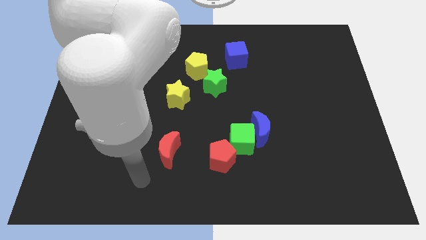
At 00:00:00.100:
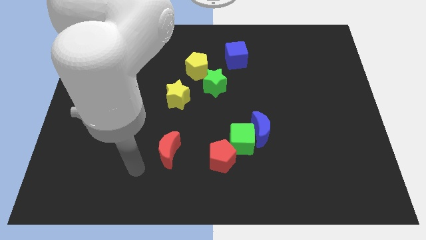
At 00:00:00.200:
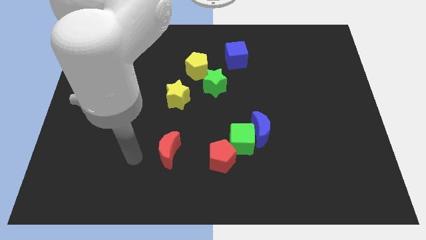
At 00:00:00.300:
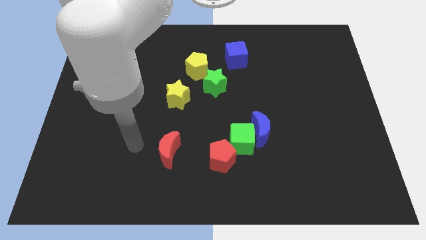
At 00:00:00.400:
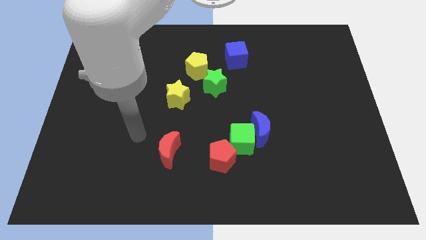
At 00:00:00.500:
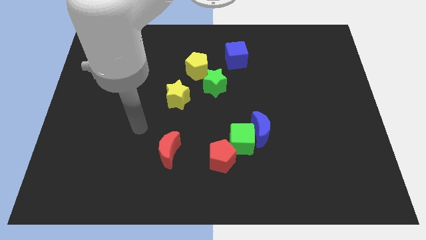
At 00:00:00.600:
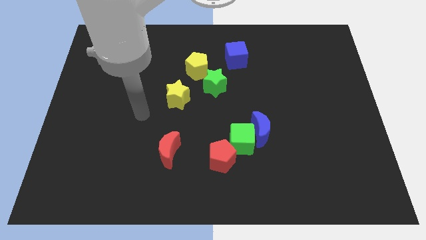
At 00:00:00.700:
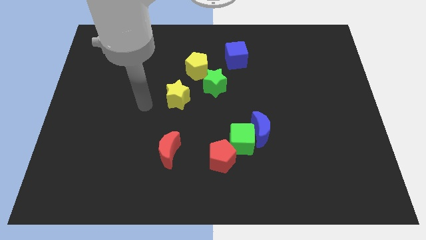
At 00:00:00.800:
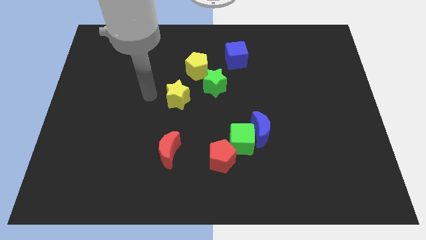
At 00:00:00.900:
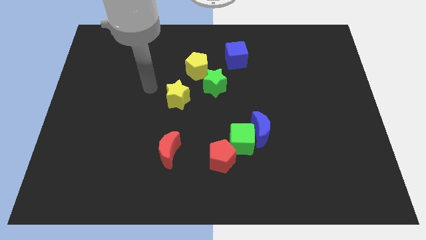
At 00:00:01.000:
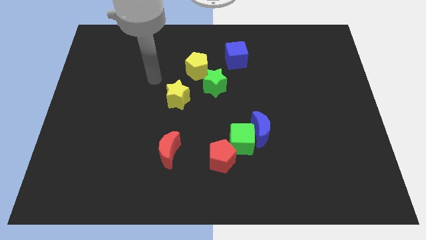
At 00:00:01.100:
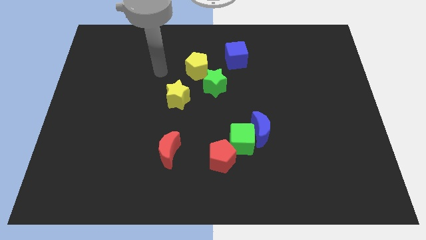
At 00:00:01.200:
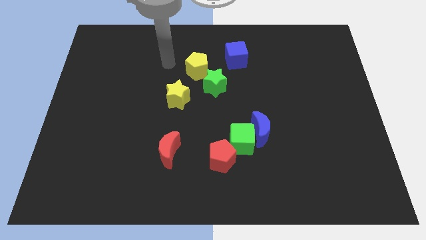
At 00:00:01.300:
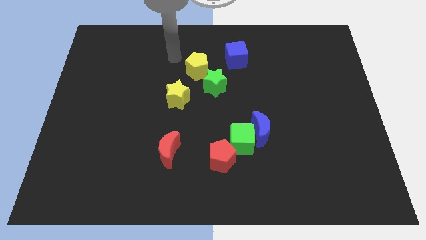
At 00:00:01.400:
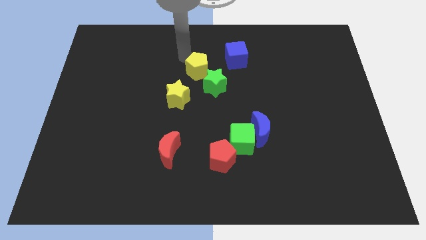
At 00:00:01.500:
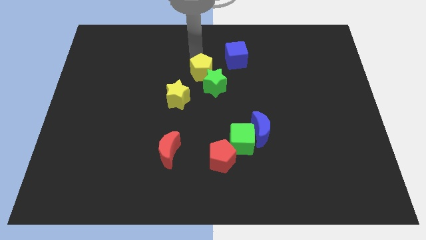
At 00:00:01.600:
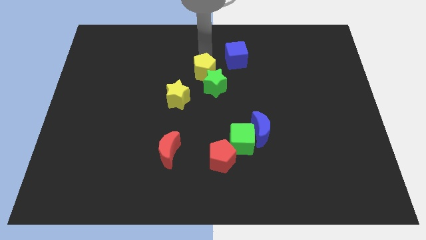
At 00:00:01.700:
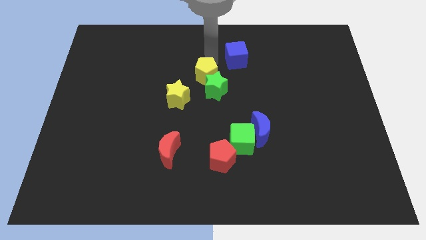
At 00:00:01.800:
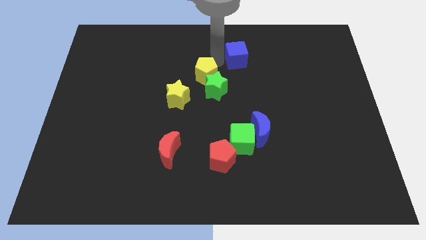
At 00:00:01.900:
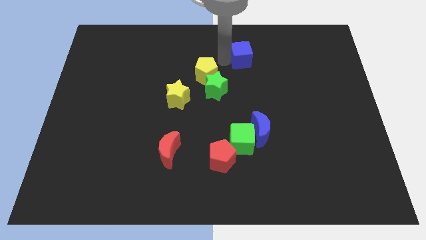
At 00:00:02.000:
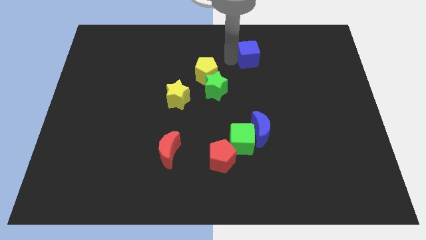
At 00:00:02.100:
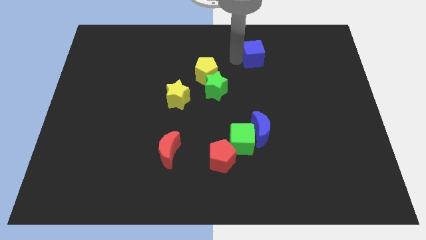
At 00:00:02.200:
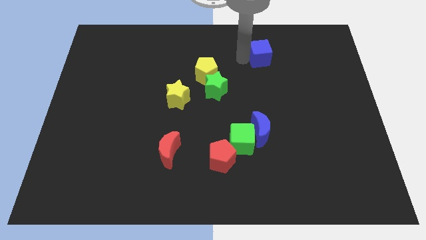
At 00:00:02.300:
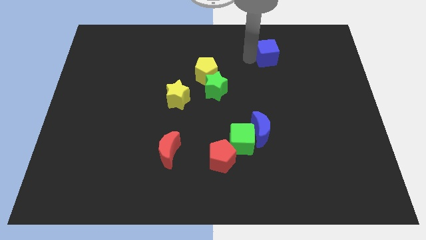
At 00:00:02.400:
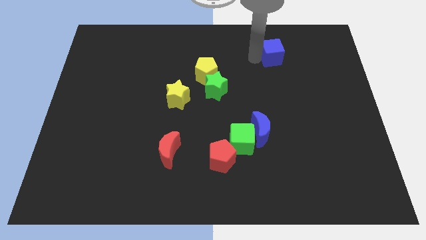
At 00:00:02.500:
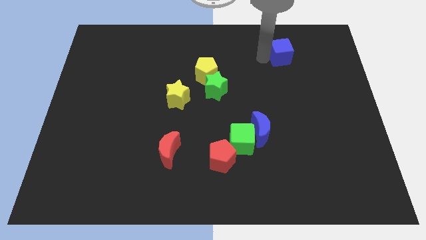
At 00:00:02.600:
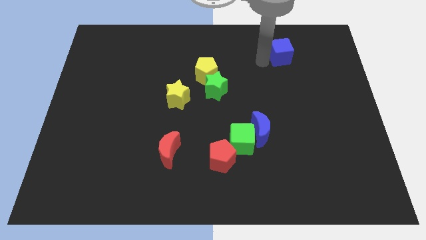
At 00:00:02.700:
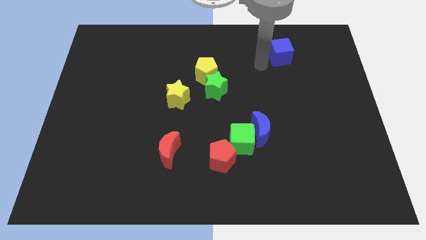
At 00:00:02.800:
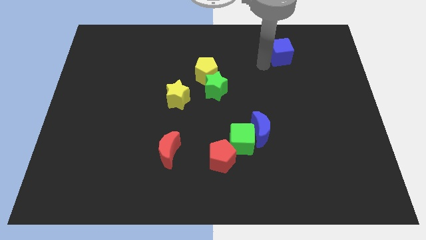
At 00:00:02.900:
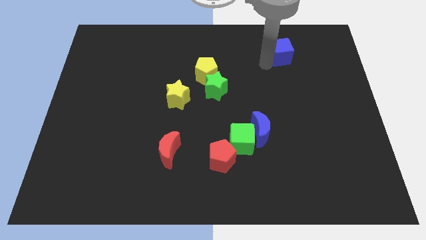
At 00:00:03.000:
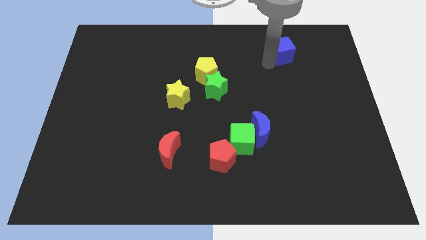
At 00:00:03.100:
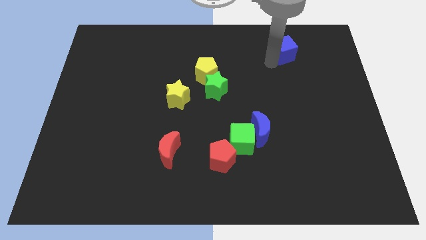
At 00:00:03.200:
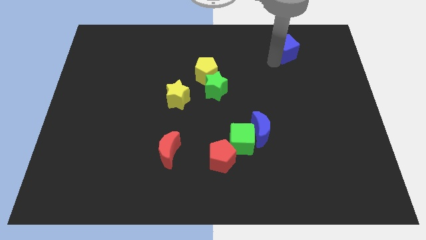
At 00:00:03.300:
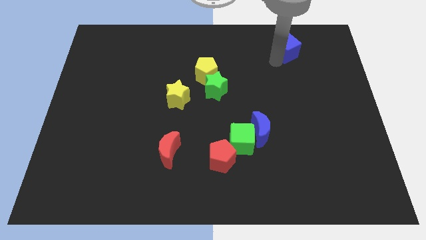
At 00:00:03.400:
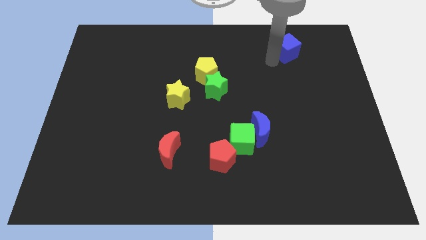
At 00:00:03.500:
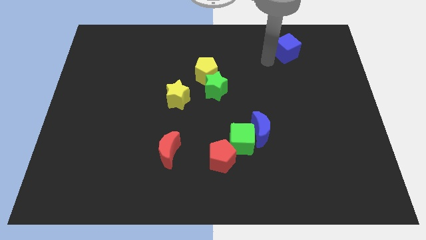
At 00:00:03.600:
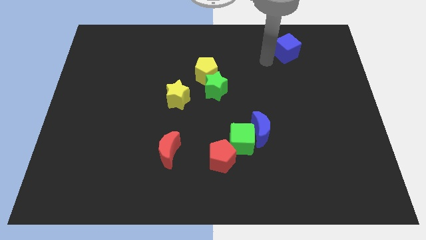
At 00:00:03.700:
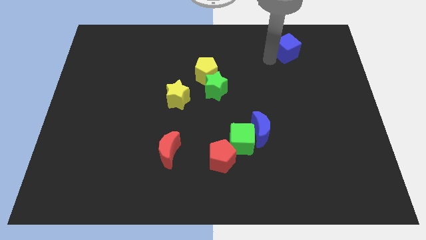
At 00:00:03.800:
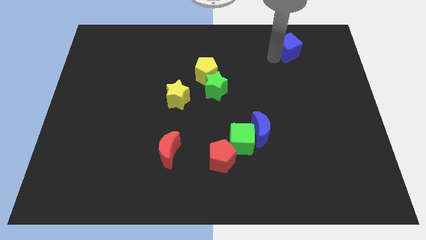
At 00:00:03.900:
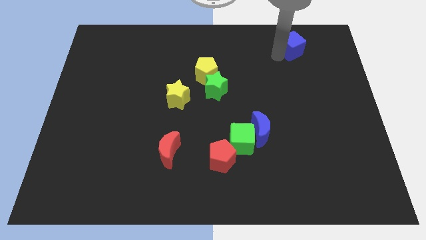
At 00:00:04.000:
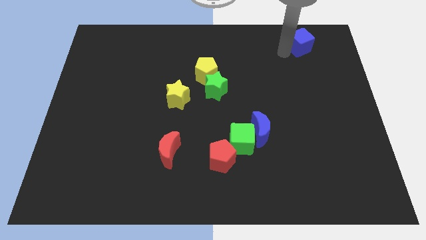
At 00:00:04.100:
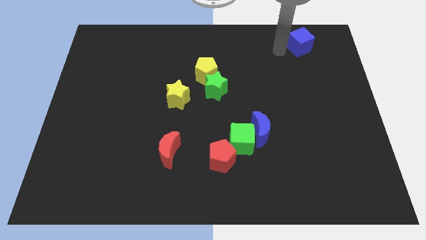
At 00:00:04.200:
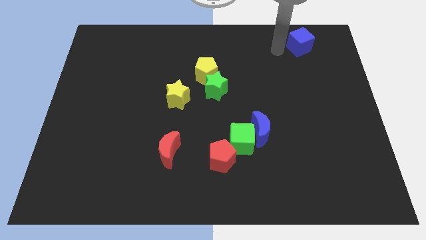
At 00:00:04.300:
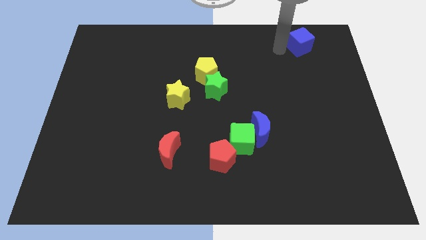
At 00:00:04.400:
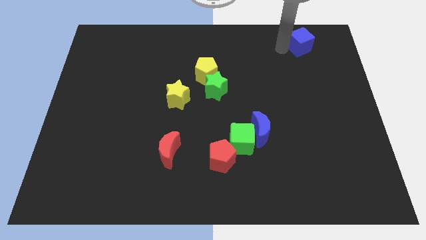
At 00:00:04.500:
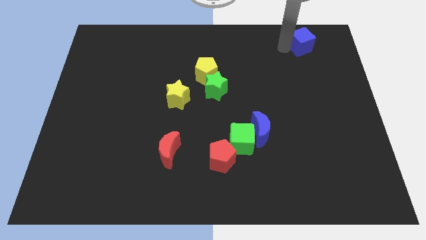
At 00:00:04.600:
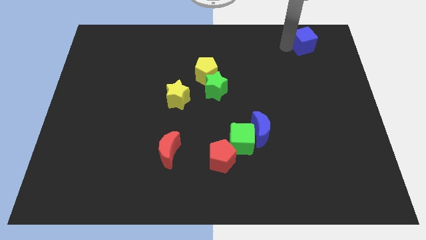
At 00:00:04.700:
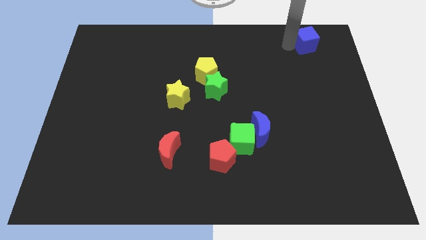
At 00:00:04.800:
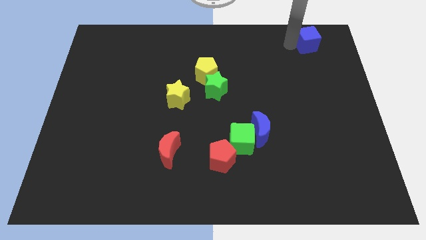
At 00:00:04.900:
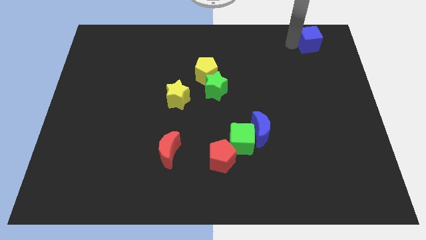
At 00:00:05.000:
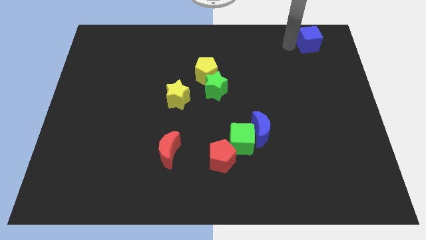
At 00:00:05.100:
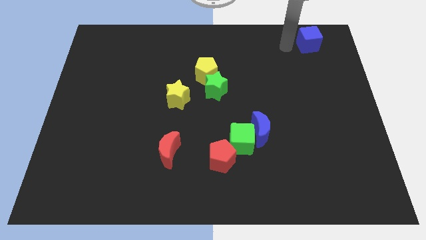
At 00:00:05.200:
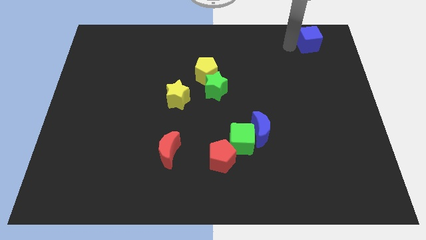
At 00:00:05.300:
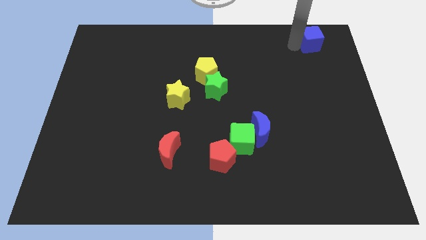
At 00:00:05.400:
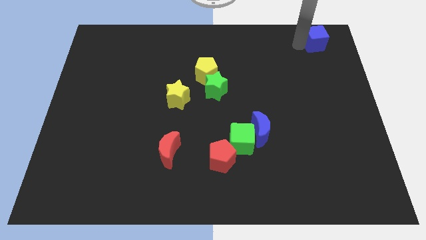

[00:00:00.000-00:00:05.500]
slide the blue cube to the upper right corner

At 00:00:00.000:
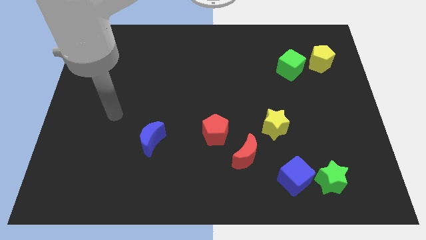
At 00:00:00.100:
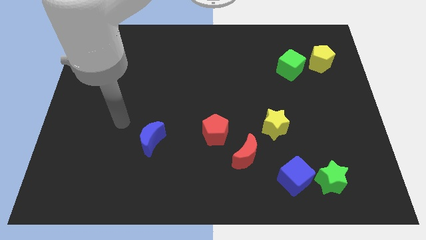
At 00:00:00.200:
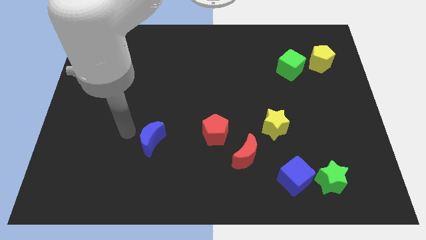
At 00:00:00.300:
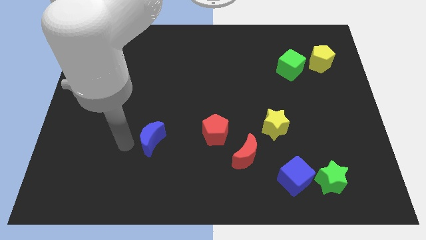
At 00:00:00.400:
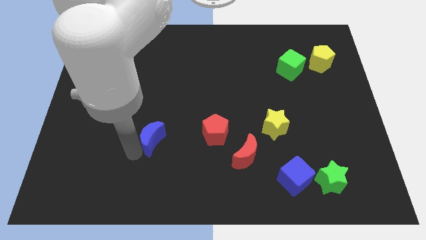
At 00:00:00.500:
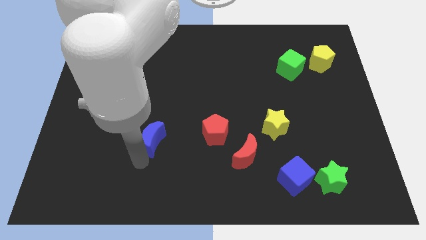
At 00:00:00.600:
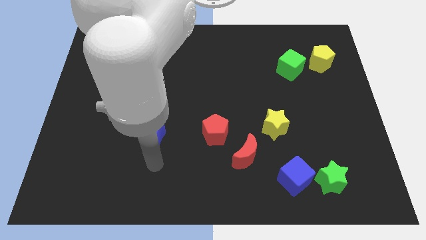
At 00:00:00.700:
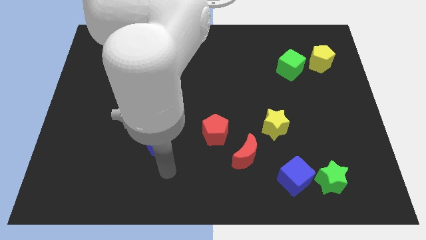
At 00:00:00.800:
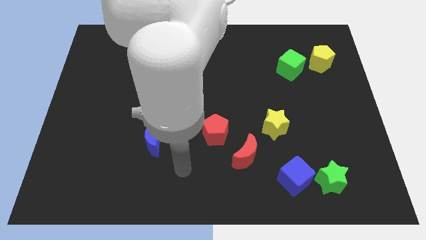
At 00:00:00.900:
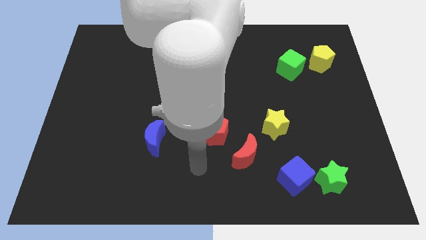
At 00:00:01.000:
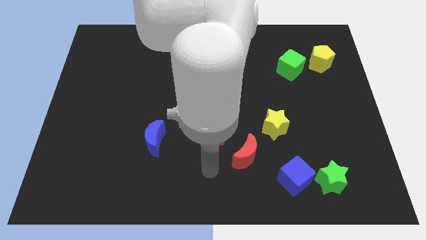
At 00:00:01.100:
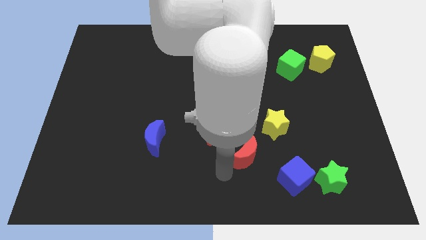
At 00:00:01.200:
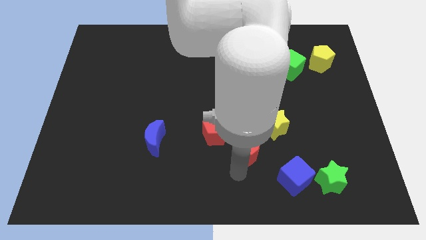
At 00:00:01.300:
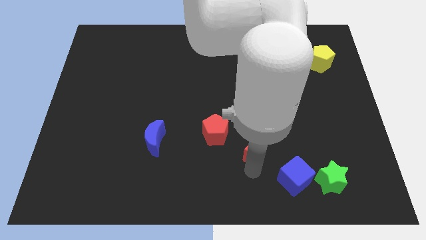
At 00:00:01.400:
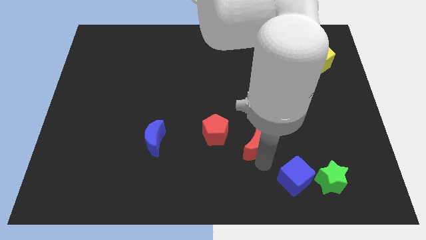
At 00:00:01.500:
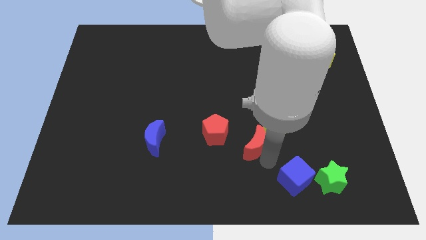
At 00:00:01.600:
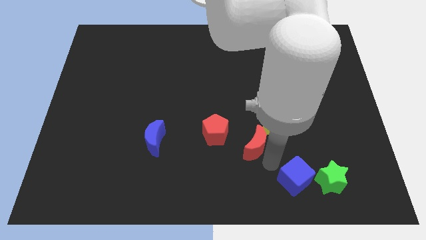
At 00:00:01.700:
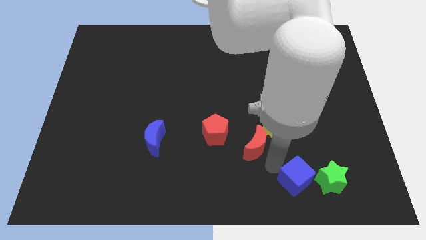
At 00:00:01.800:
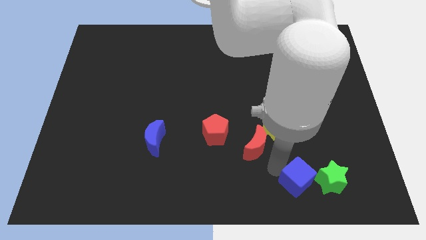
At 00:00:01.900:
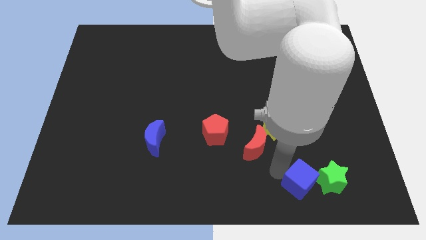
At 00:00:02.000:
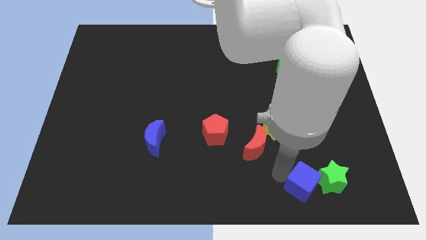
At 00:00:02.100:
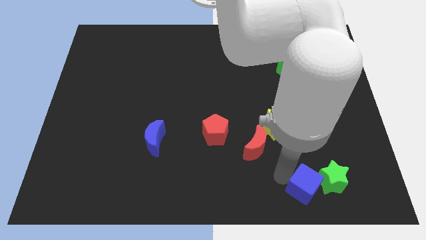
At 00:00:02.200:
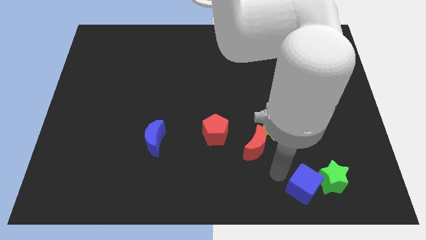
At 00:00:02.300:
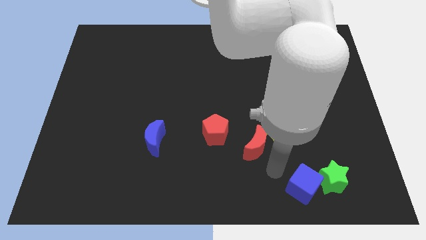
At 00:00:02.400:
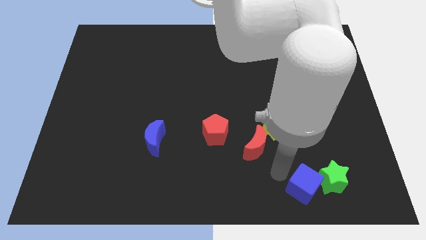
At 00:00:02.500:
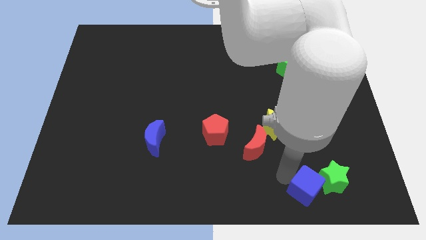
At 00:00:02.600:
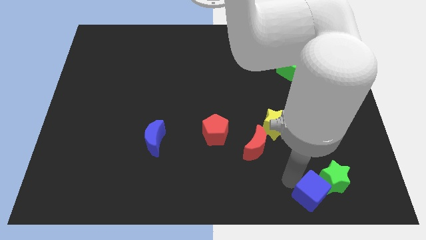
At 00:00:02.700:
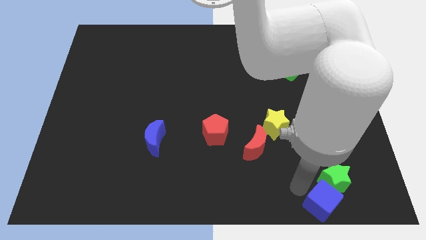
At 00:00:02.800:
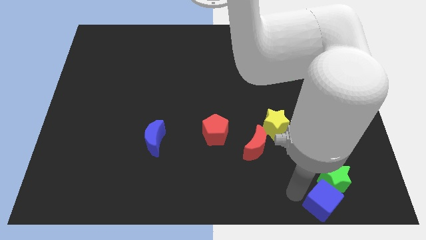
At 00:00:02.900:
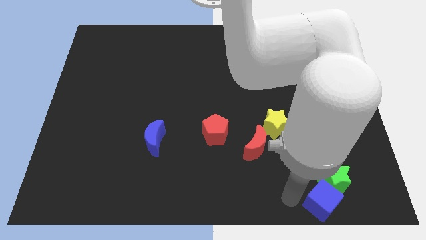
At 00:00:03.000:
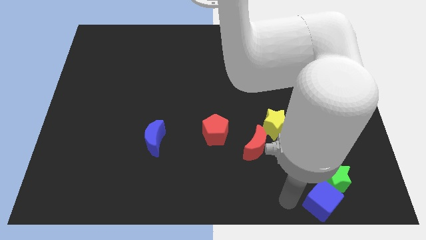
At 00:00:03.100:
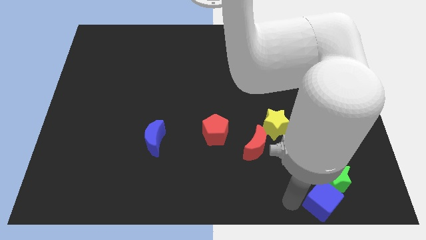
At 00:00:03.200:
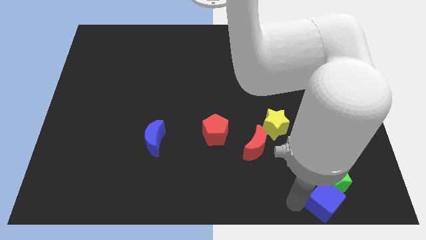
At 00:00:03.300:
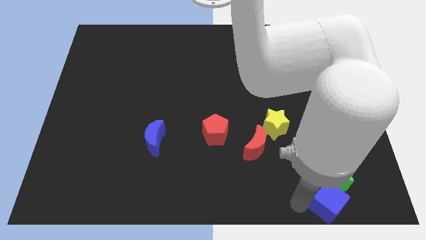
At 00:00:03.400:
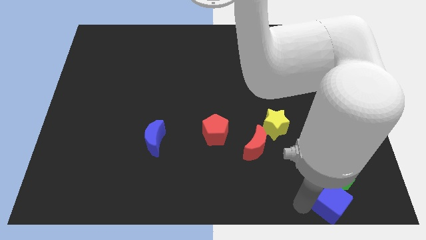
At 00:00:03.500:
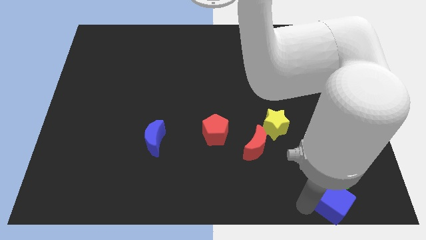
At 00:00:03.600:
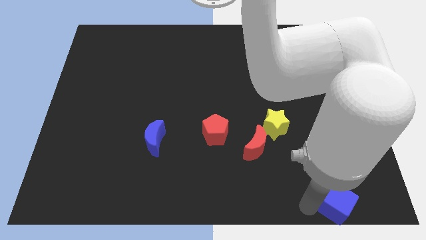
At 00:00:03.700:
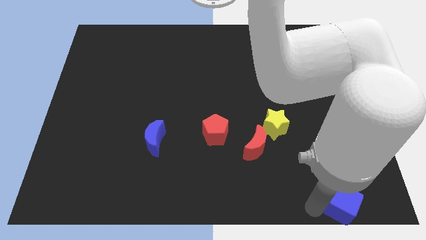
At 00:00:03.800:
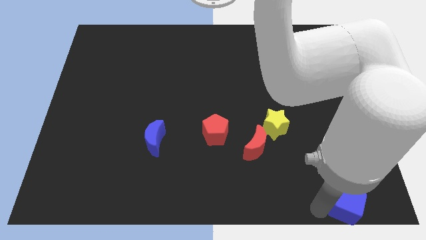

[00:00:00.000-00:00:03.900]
move the blue cube to the bottom right
